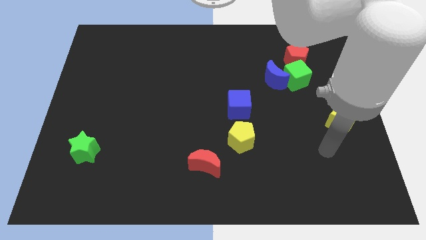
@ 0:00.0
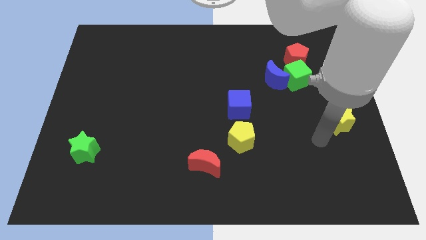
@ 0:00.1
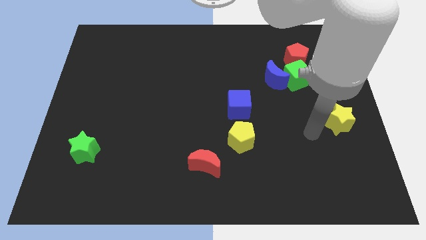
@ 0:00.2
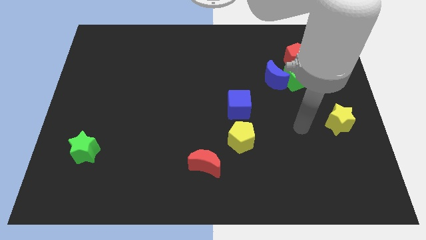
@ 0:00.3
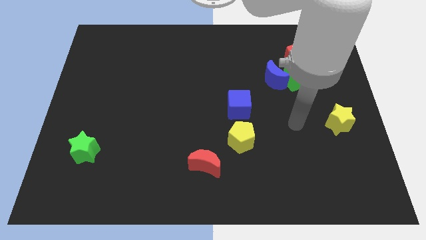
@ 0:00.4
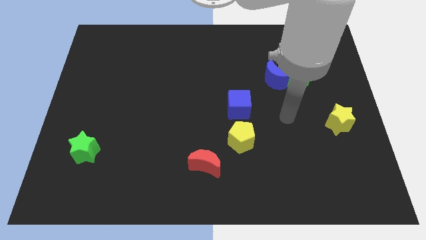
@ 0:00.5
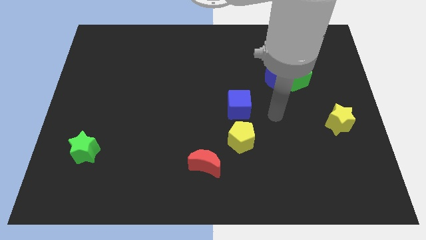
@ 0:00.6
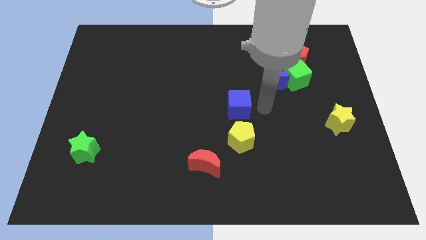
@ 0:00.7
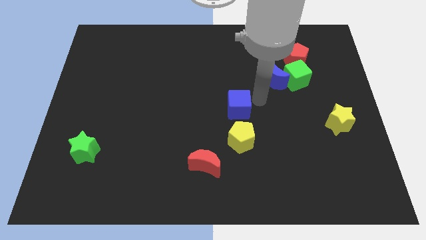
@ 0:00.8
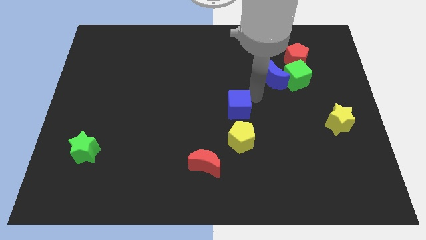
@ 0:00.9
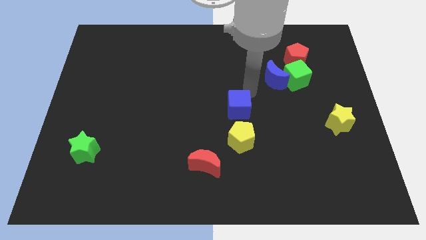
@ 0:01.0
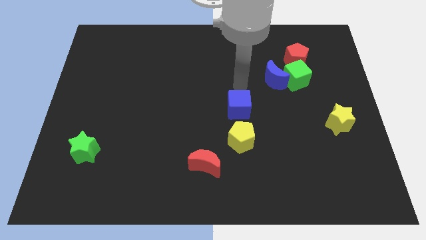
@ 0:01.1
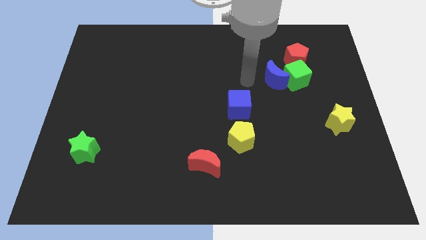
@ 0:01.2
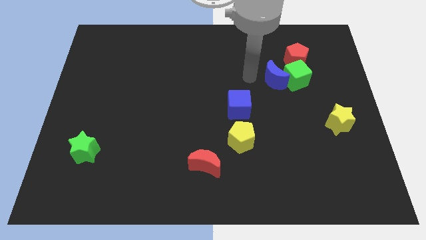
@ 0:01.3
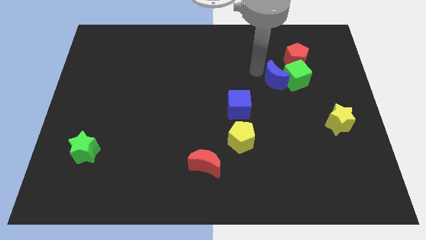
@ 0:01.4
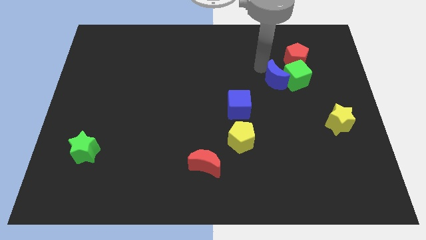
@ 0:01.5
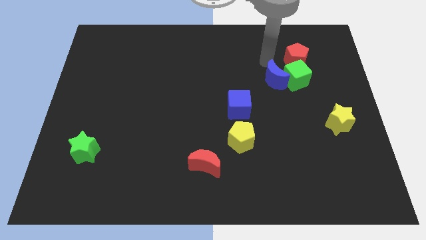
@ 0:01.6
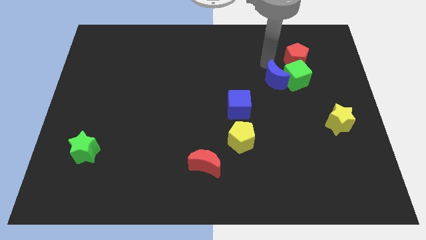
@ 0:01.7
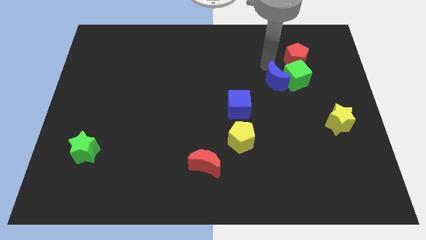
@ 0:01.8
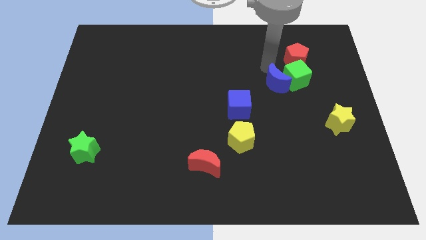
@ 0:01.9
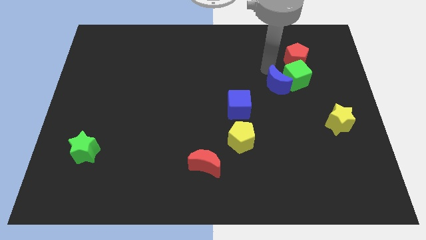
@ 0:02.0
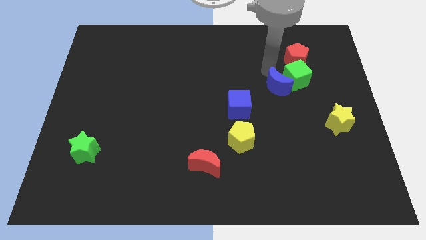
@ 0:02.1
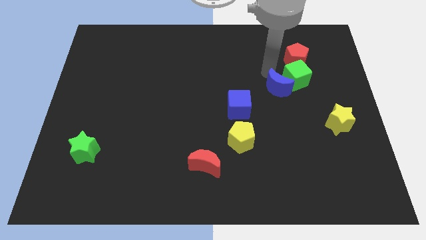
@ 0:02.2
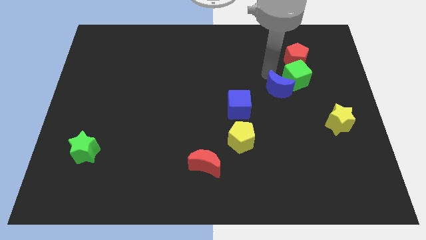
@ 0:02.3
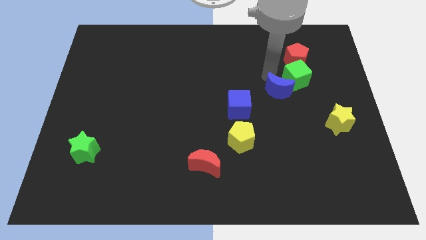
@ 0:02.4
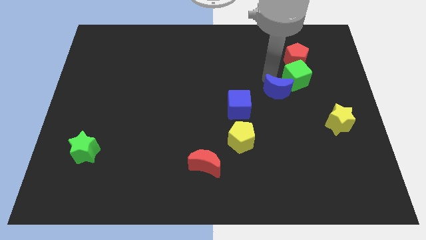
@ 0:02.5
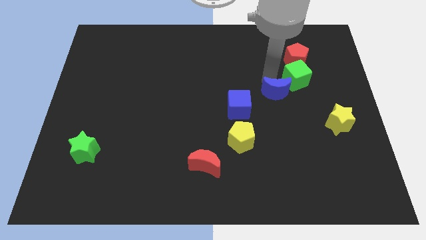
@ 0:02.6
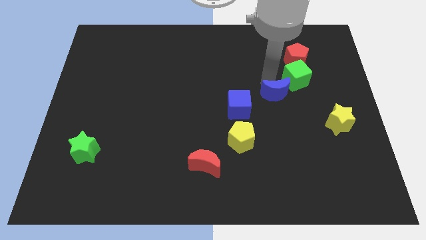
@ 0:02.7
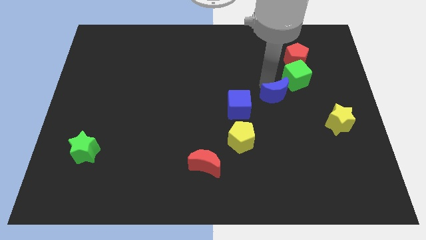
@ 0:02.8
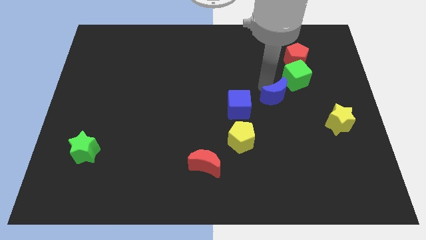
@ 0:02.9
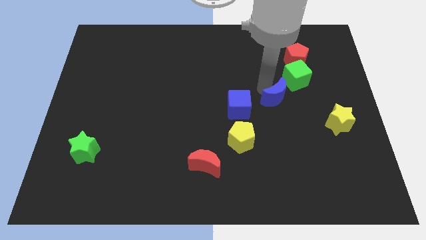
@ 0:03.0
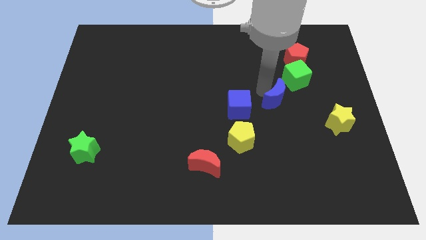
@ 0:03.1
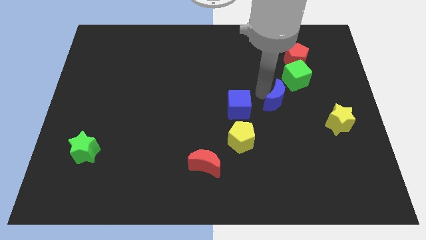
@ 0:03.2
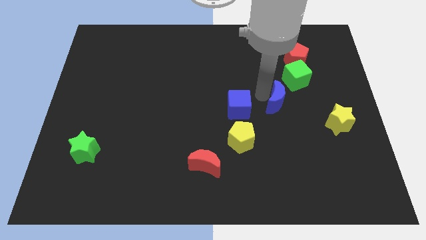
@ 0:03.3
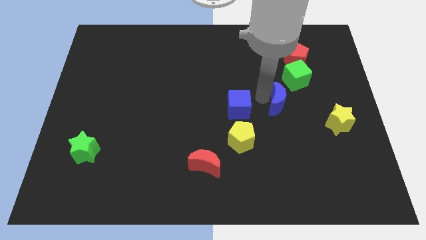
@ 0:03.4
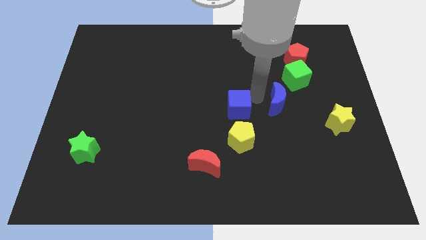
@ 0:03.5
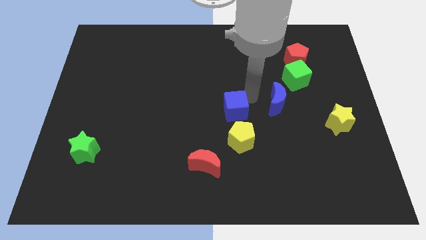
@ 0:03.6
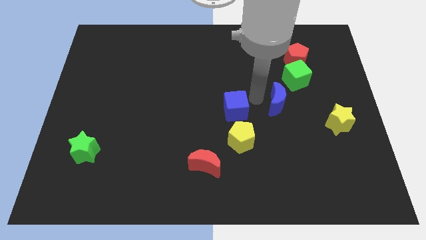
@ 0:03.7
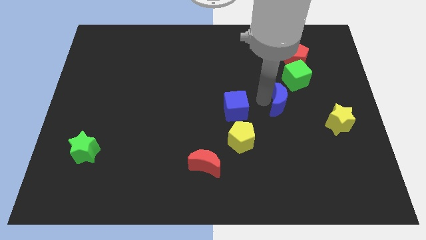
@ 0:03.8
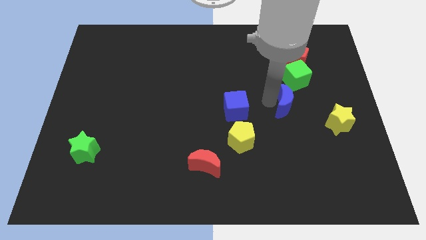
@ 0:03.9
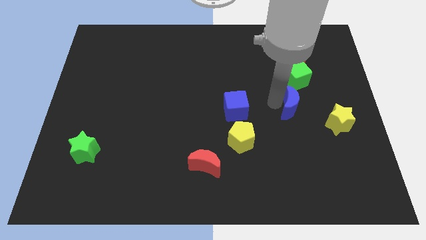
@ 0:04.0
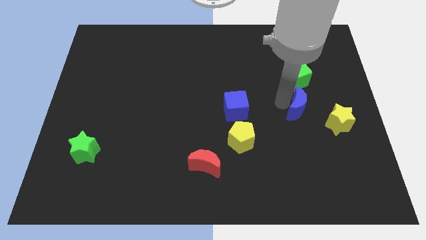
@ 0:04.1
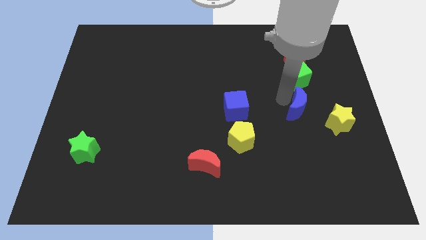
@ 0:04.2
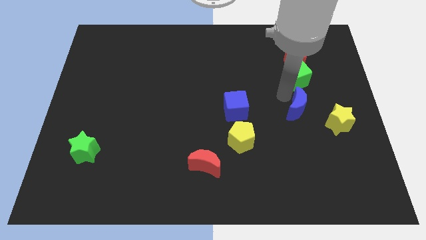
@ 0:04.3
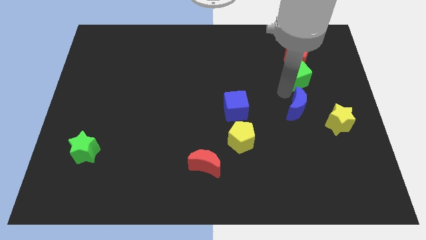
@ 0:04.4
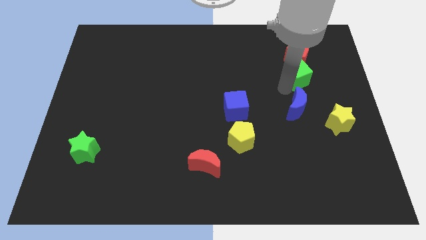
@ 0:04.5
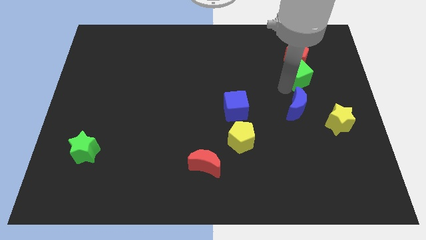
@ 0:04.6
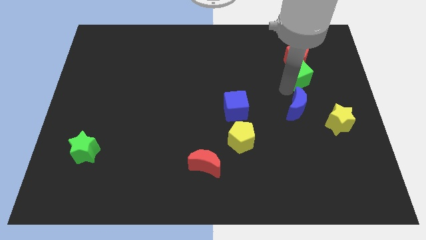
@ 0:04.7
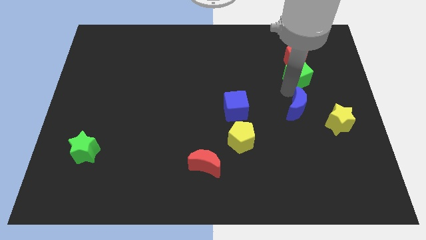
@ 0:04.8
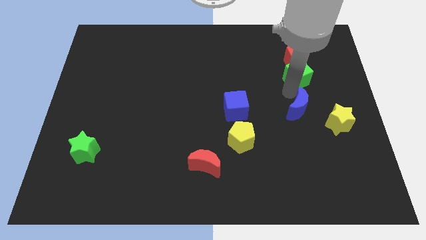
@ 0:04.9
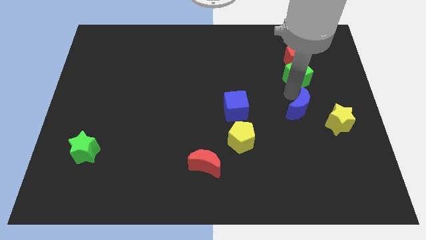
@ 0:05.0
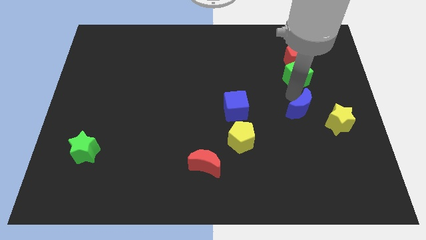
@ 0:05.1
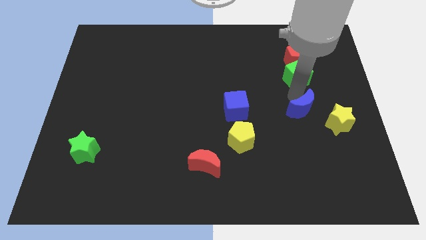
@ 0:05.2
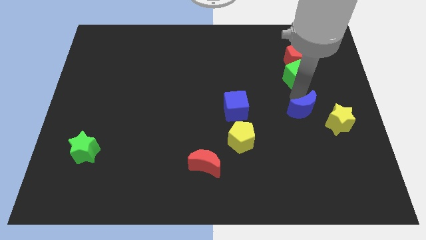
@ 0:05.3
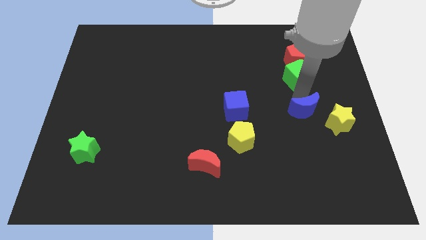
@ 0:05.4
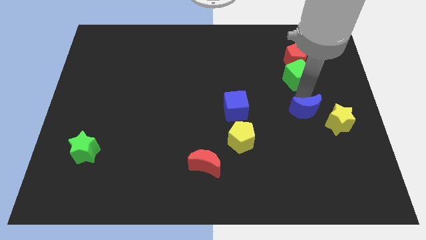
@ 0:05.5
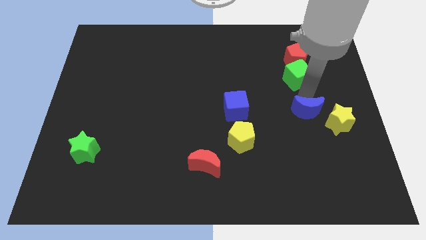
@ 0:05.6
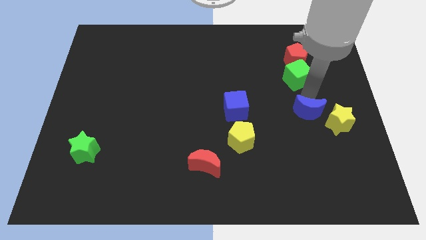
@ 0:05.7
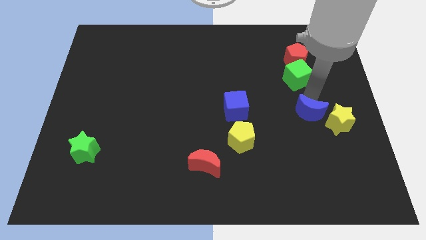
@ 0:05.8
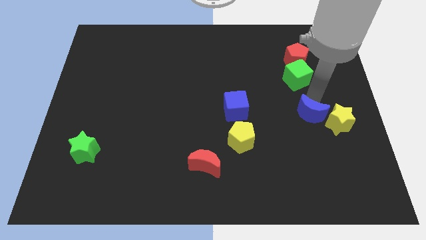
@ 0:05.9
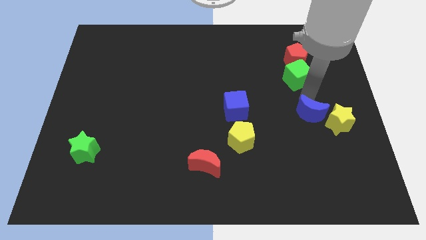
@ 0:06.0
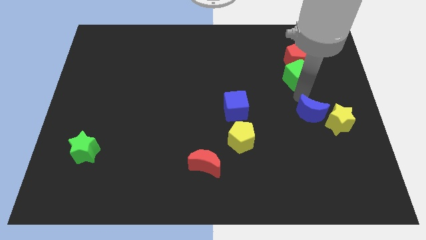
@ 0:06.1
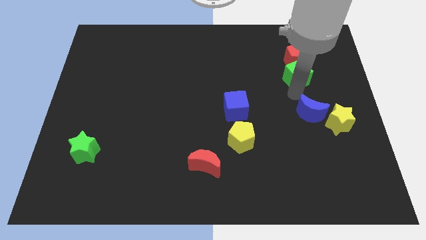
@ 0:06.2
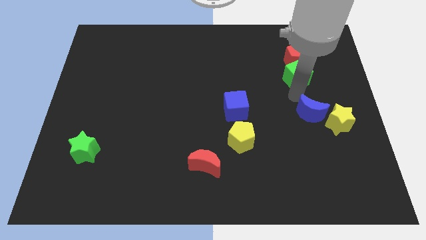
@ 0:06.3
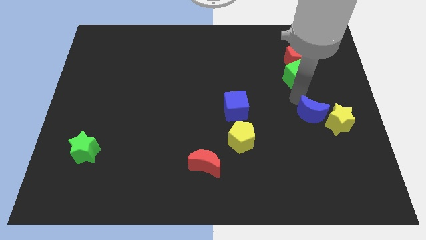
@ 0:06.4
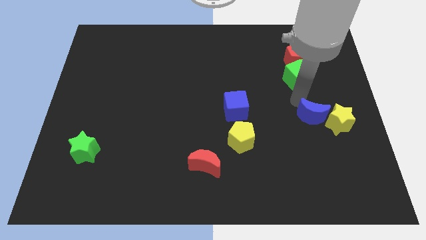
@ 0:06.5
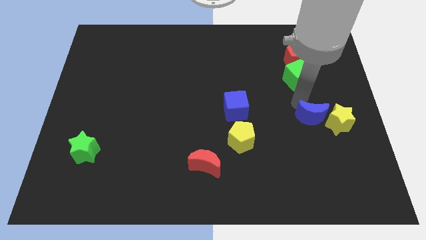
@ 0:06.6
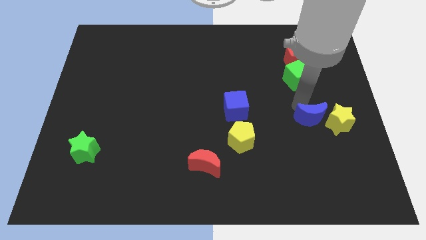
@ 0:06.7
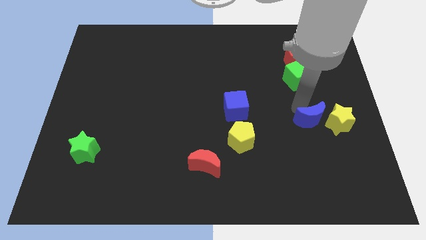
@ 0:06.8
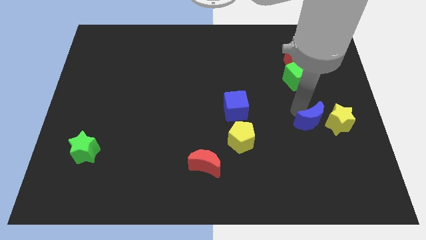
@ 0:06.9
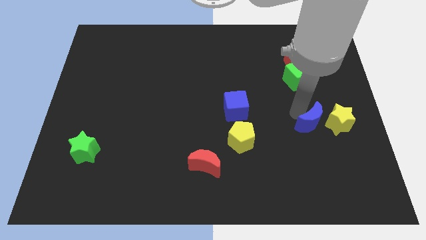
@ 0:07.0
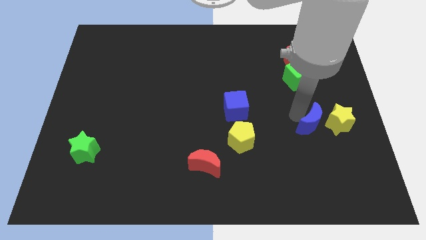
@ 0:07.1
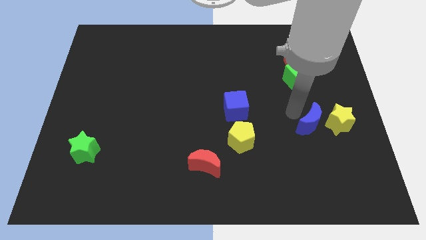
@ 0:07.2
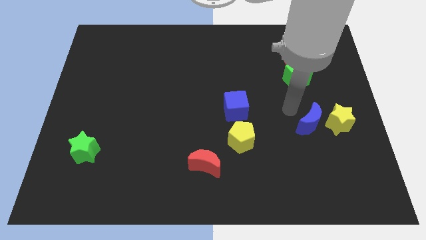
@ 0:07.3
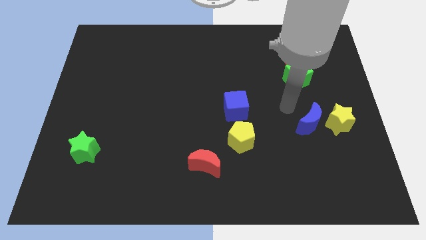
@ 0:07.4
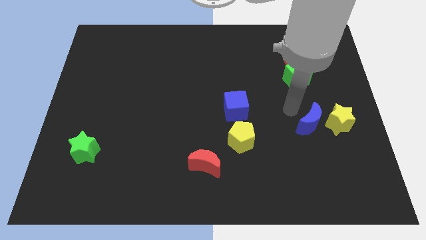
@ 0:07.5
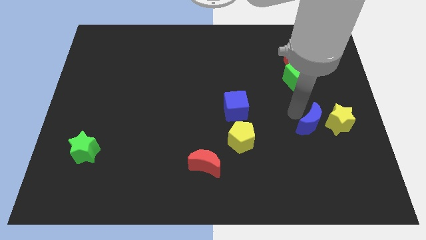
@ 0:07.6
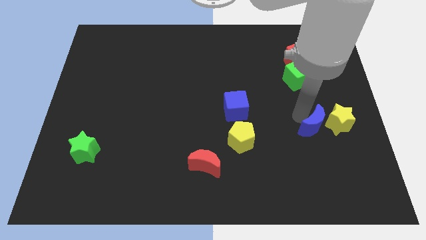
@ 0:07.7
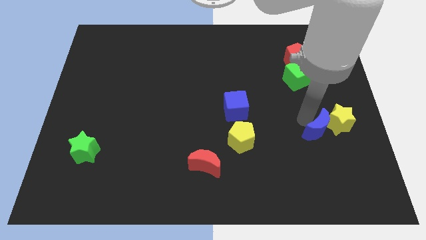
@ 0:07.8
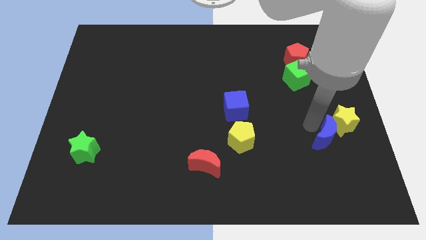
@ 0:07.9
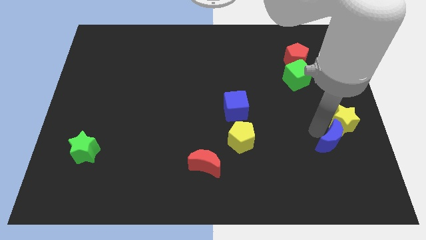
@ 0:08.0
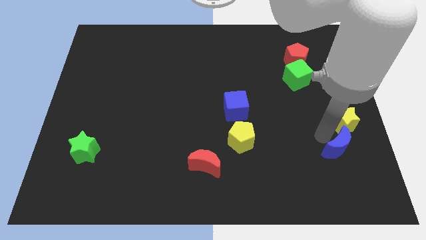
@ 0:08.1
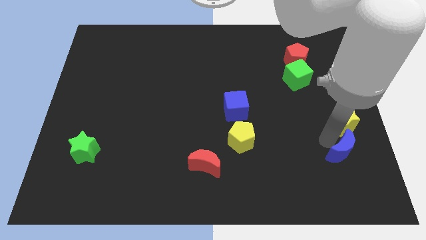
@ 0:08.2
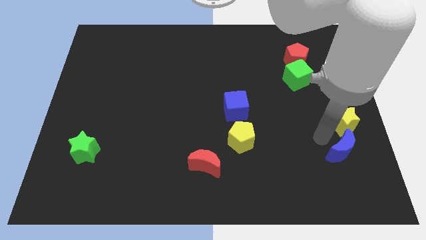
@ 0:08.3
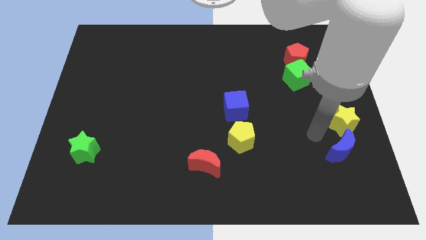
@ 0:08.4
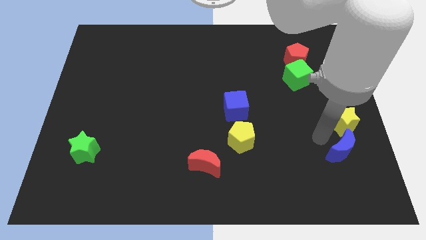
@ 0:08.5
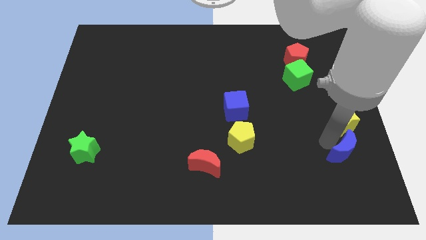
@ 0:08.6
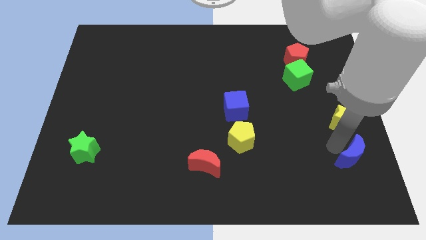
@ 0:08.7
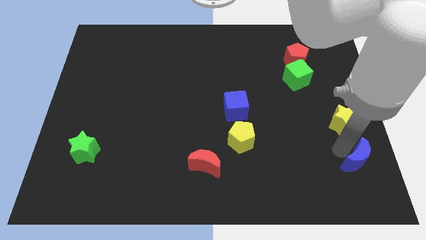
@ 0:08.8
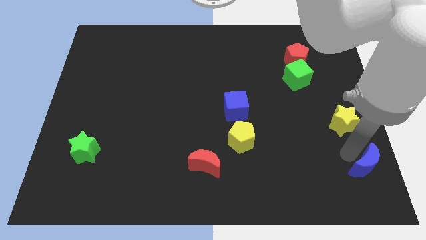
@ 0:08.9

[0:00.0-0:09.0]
push the blue moon to the bottom right corner
